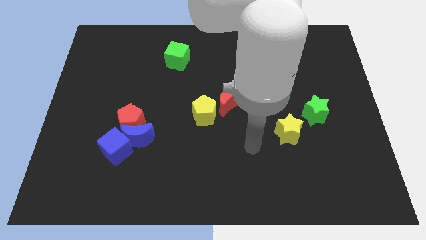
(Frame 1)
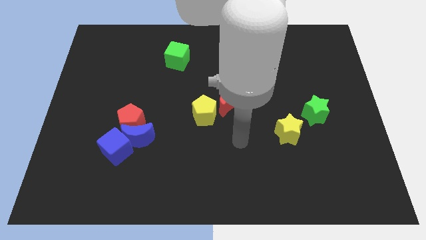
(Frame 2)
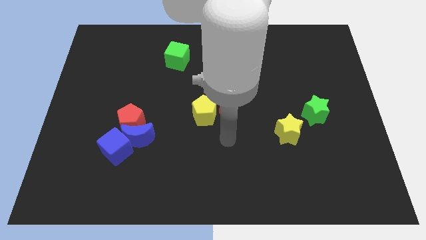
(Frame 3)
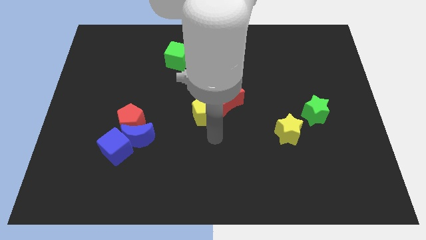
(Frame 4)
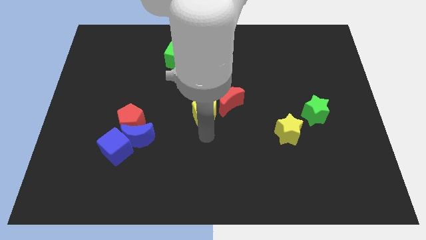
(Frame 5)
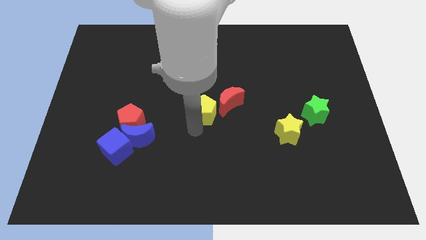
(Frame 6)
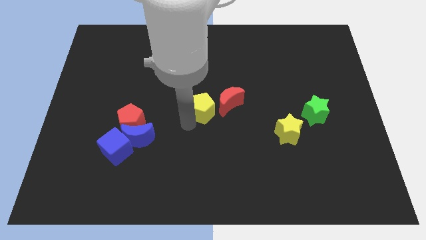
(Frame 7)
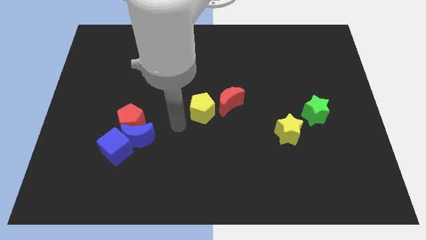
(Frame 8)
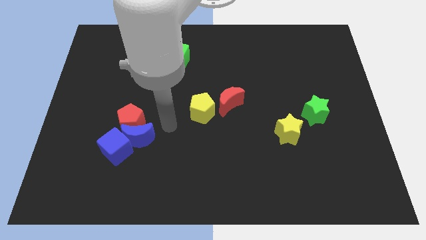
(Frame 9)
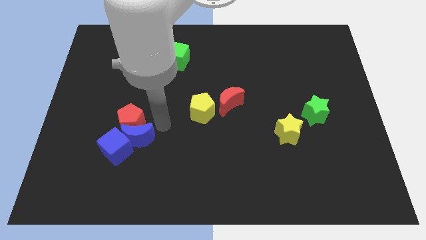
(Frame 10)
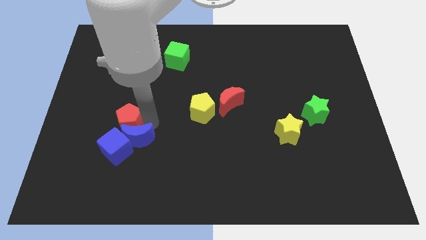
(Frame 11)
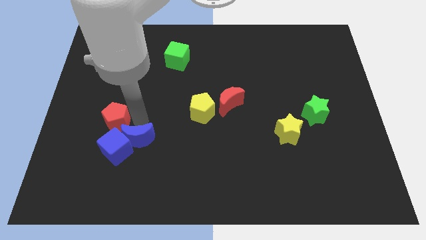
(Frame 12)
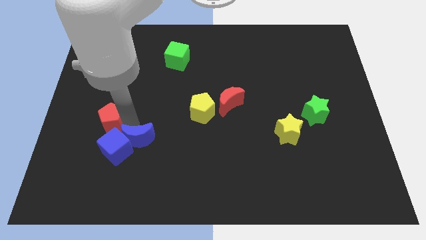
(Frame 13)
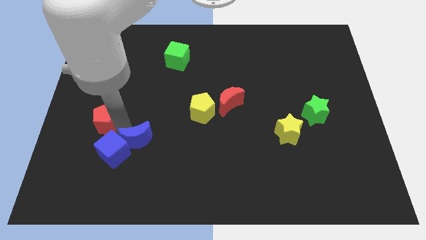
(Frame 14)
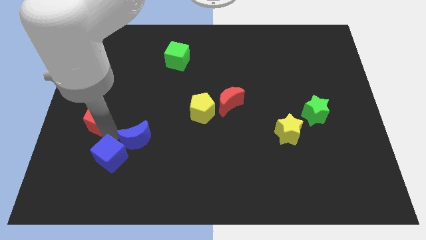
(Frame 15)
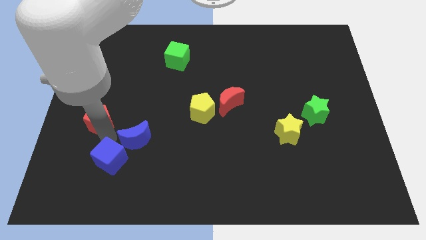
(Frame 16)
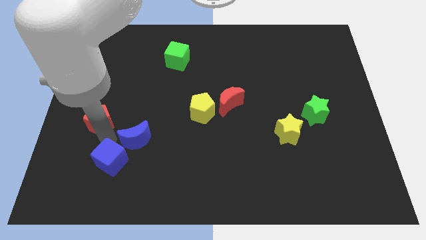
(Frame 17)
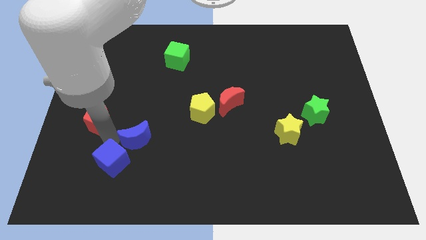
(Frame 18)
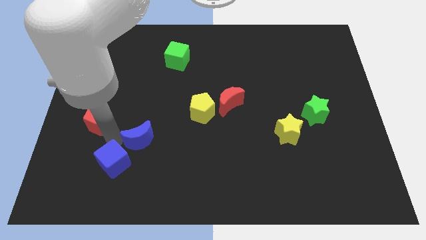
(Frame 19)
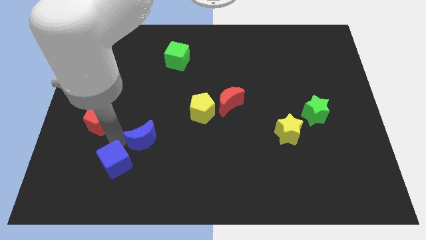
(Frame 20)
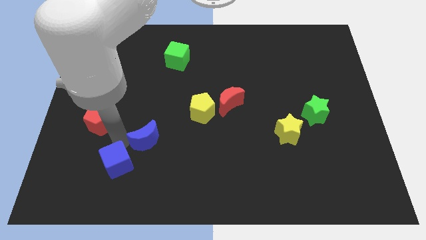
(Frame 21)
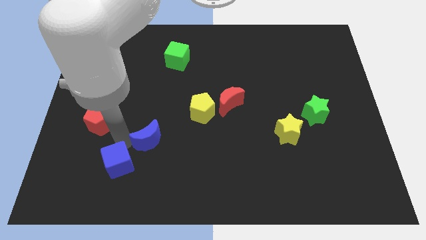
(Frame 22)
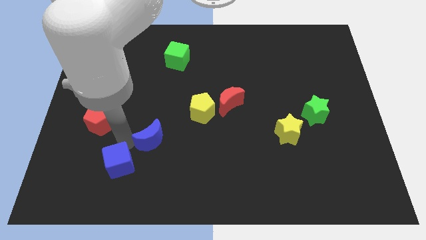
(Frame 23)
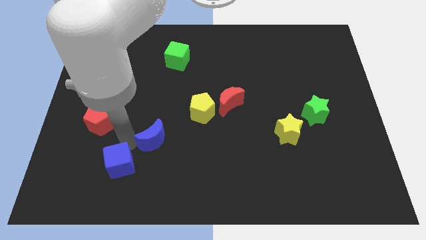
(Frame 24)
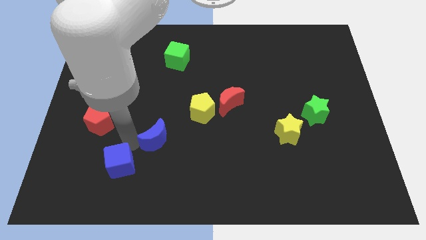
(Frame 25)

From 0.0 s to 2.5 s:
move the blue moon away from the red pentagon and blue cube

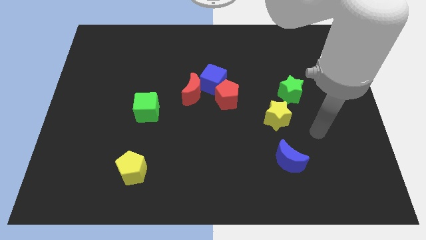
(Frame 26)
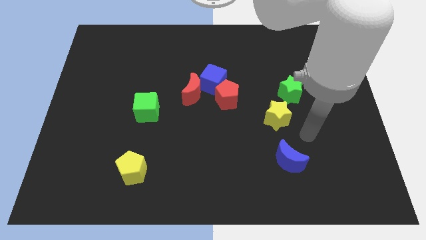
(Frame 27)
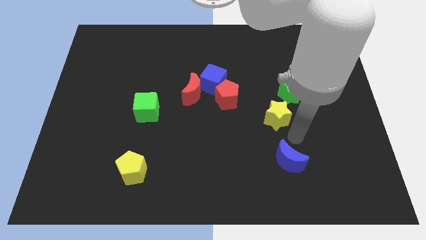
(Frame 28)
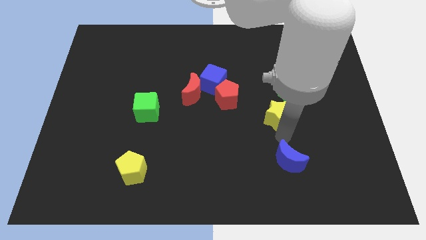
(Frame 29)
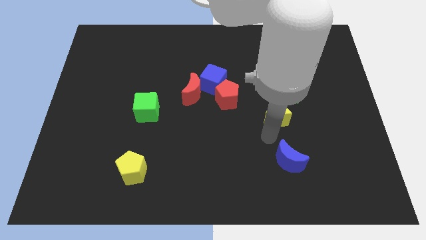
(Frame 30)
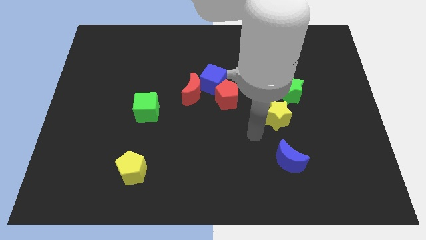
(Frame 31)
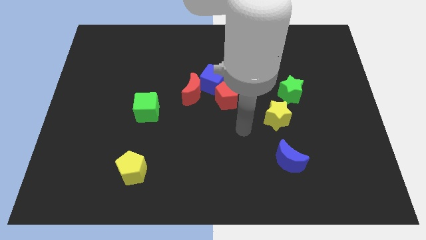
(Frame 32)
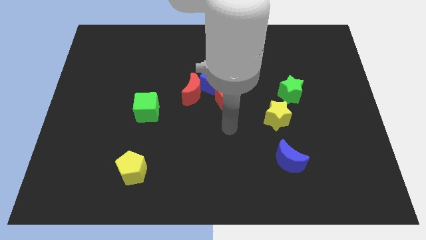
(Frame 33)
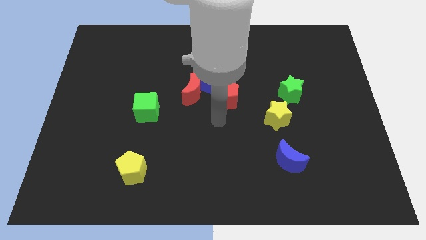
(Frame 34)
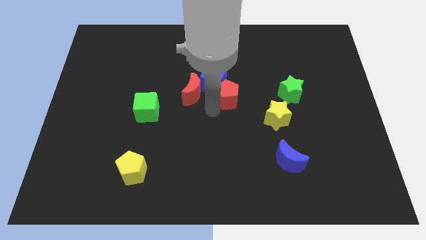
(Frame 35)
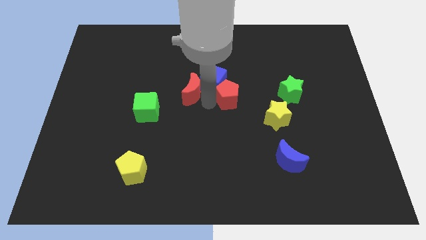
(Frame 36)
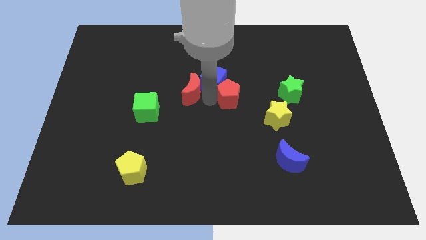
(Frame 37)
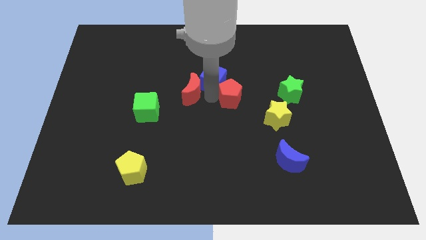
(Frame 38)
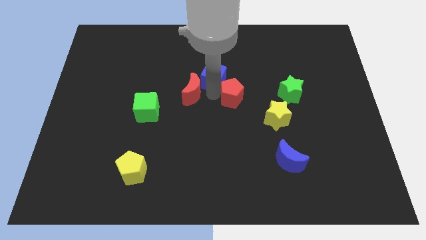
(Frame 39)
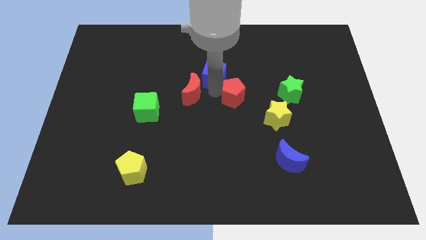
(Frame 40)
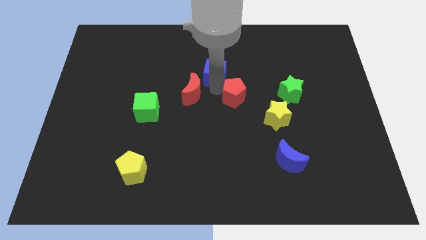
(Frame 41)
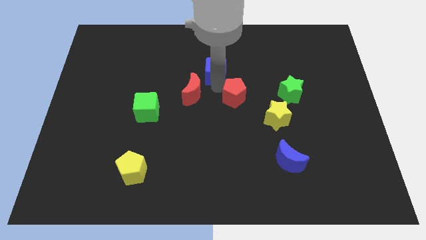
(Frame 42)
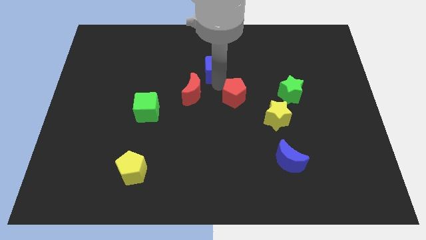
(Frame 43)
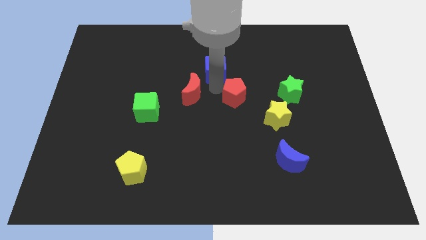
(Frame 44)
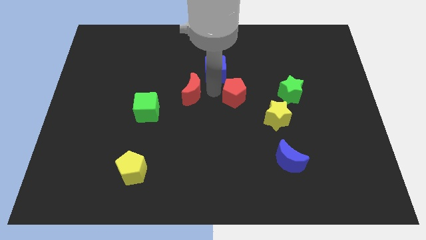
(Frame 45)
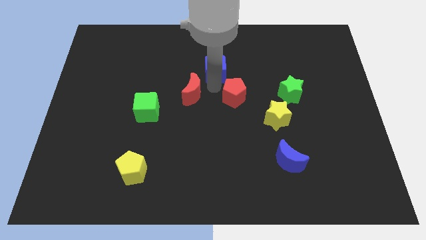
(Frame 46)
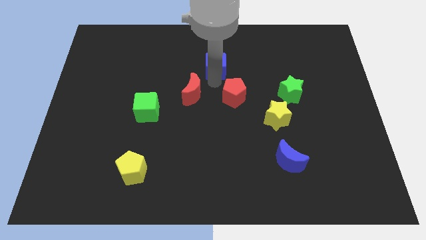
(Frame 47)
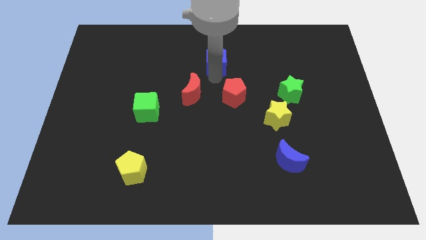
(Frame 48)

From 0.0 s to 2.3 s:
move the blue cube away from the red moon and red pentagon

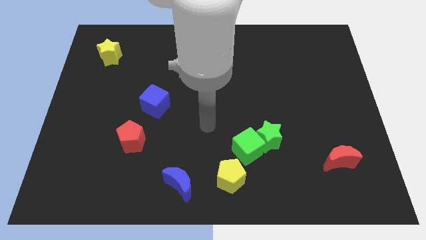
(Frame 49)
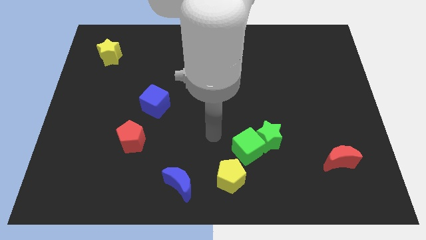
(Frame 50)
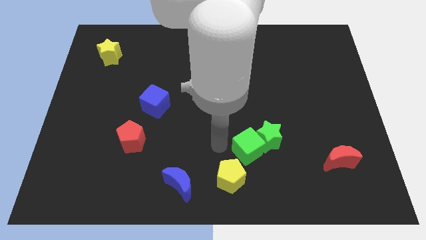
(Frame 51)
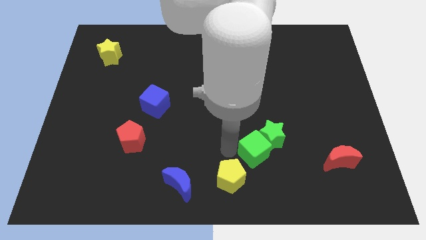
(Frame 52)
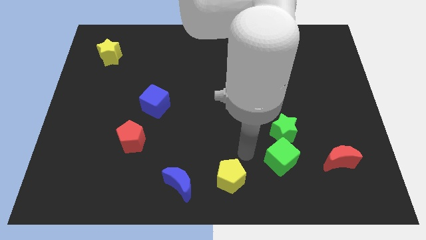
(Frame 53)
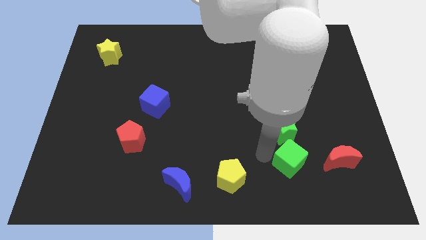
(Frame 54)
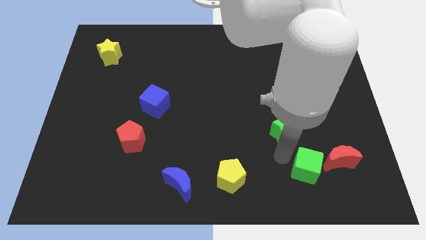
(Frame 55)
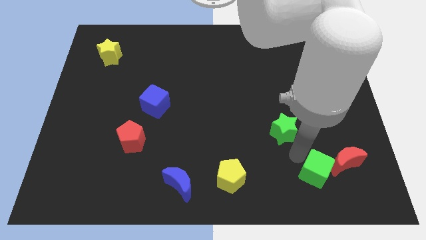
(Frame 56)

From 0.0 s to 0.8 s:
move the green star away from the green cube

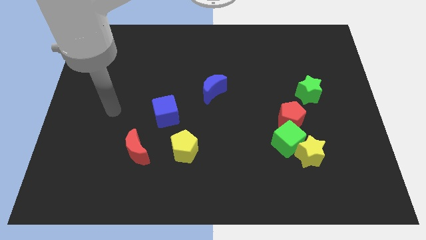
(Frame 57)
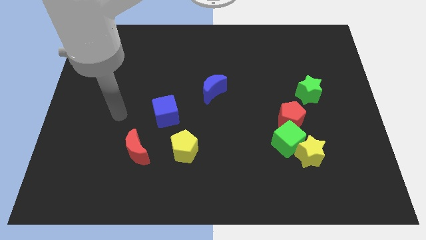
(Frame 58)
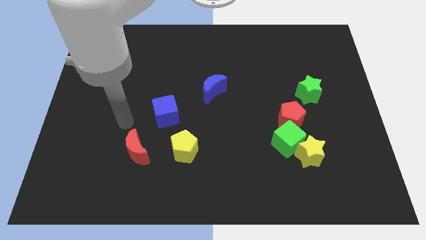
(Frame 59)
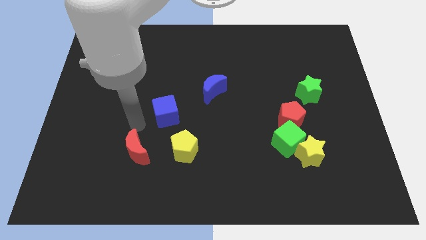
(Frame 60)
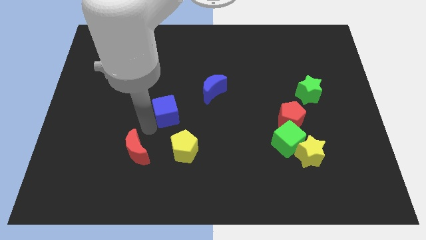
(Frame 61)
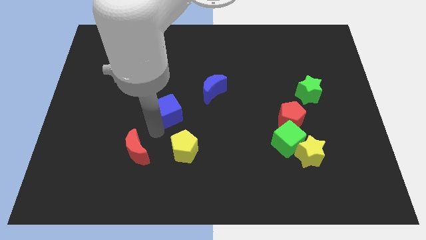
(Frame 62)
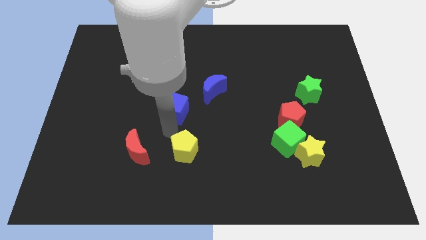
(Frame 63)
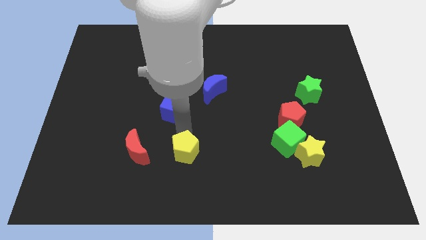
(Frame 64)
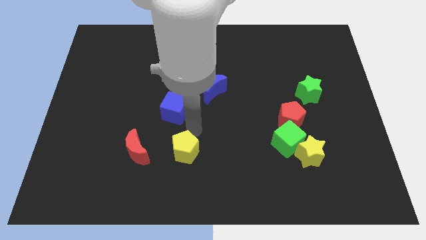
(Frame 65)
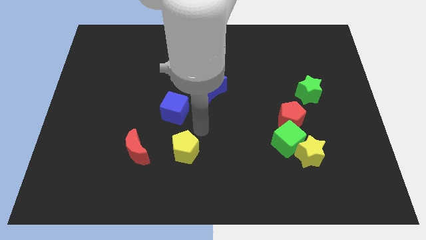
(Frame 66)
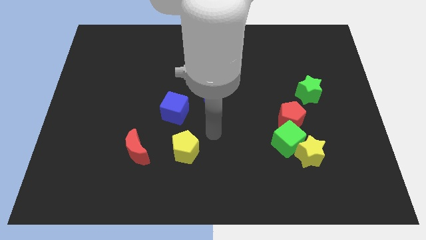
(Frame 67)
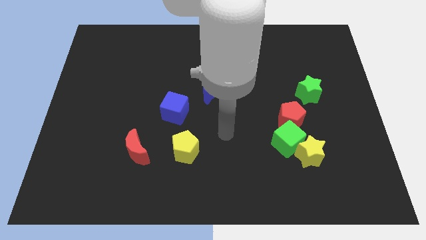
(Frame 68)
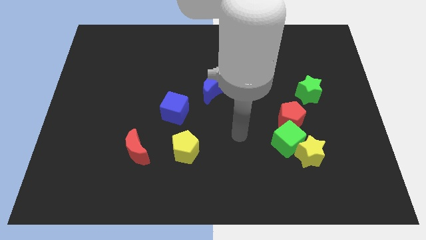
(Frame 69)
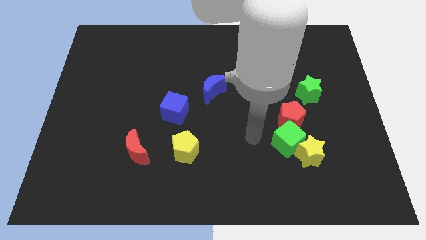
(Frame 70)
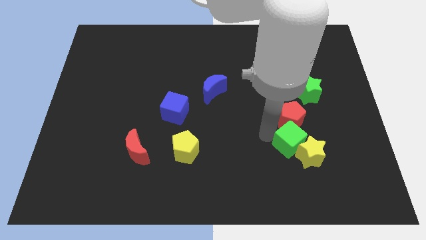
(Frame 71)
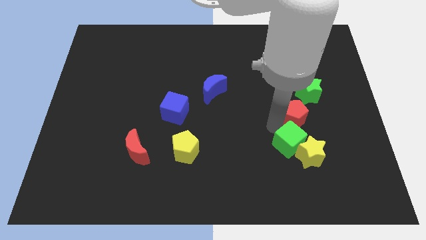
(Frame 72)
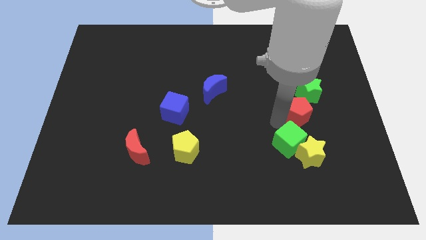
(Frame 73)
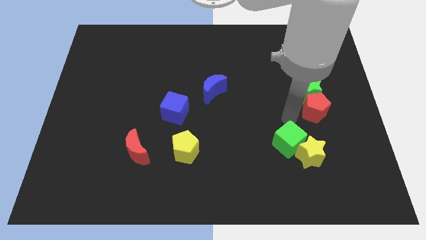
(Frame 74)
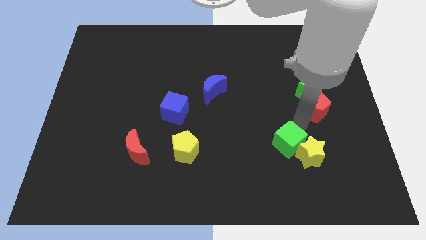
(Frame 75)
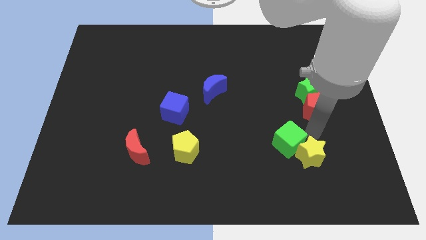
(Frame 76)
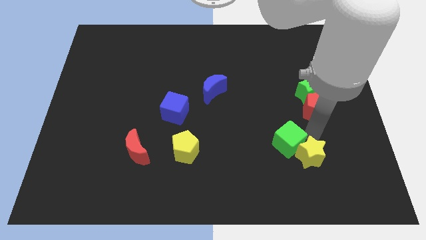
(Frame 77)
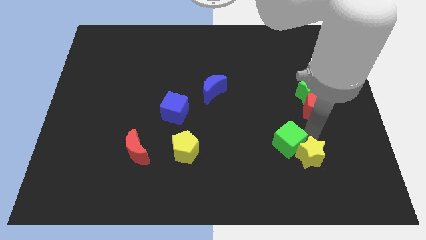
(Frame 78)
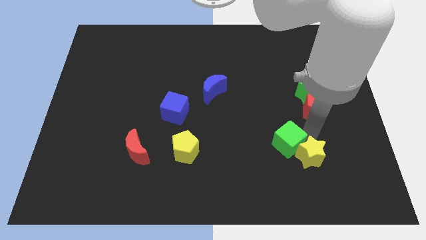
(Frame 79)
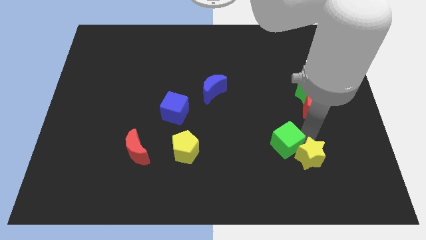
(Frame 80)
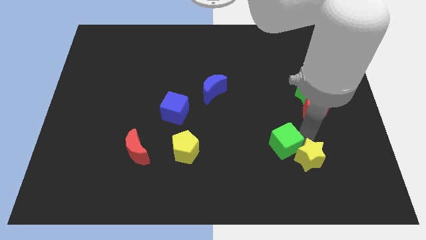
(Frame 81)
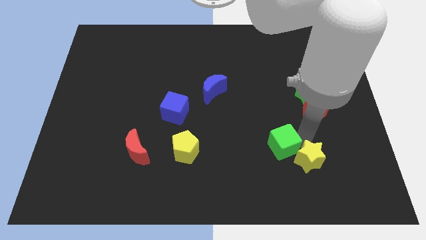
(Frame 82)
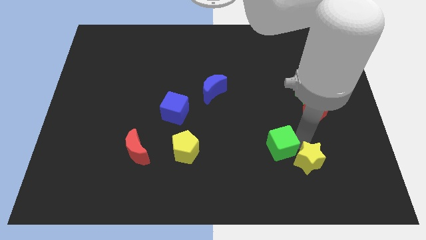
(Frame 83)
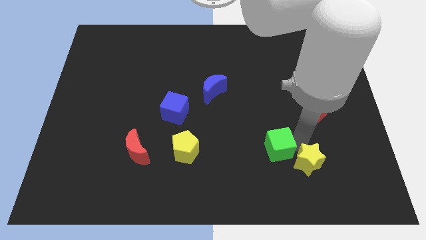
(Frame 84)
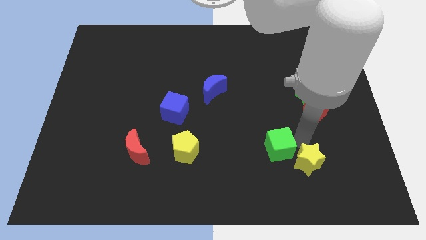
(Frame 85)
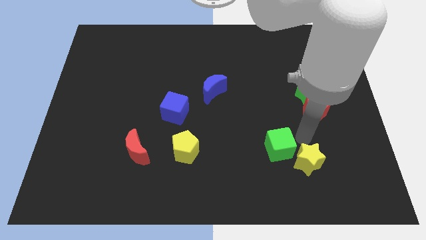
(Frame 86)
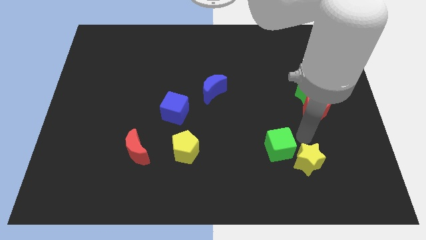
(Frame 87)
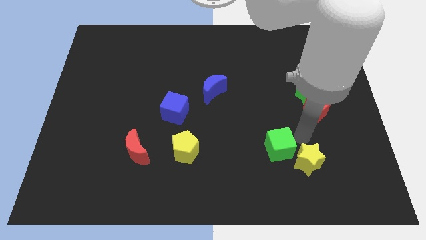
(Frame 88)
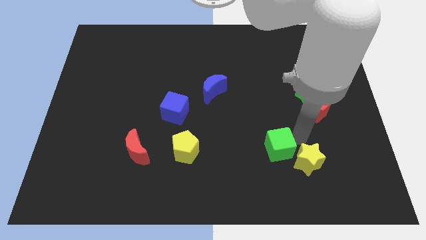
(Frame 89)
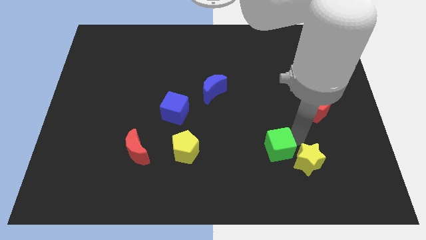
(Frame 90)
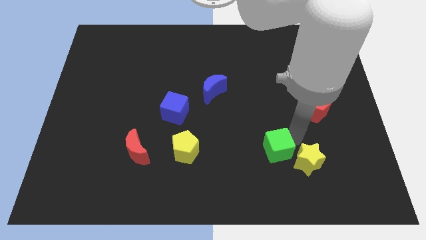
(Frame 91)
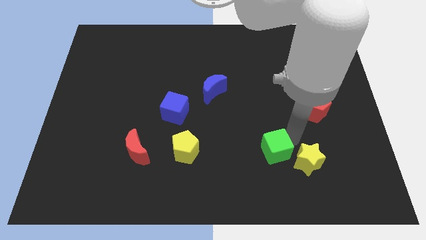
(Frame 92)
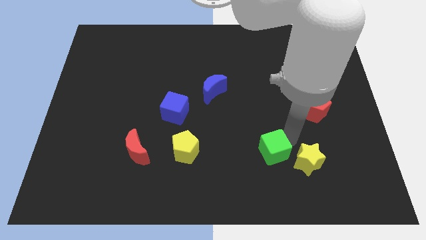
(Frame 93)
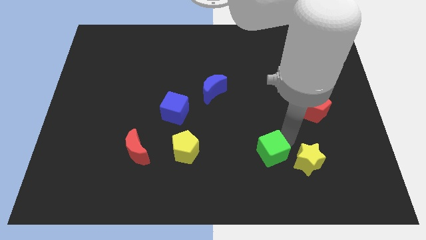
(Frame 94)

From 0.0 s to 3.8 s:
move the green cube away from the yellow star and red pentagon

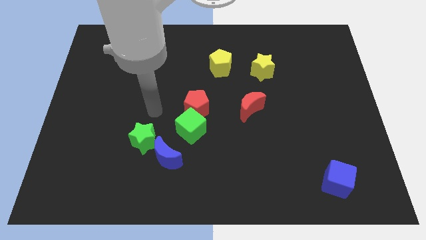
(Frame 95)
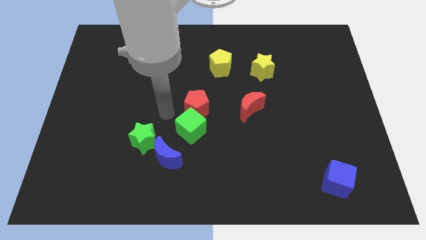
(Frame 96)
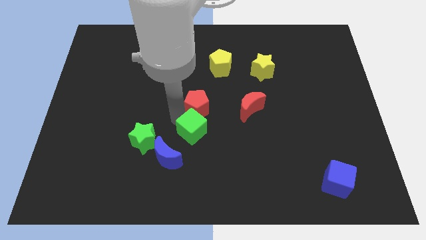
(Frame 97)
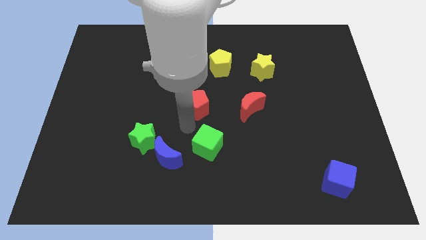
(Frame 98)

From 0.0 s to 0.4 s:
separate the red pentagon from the green cube
